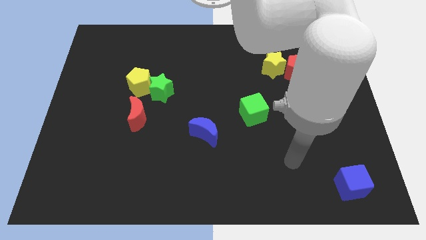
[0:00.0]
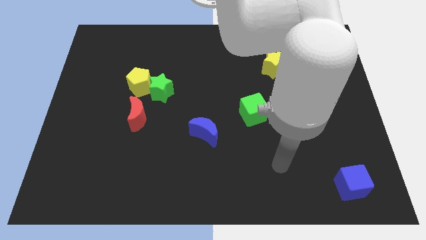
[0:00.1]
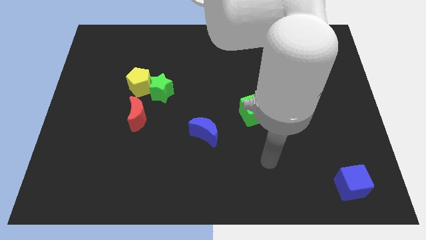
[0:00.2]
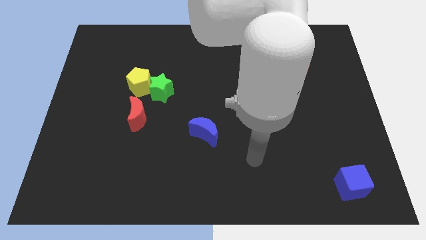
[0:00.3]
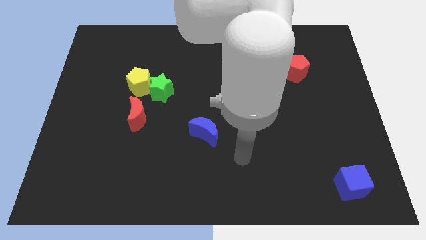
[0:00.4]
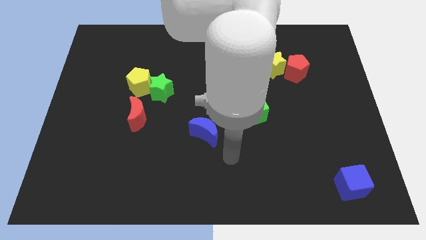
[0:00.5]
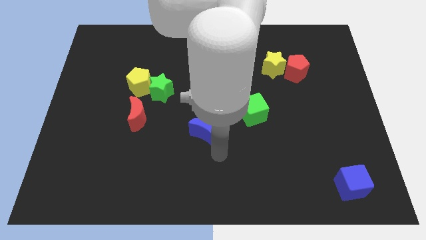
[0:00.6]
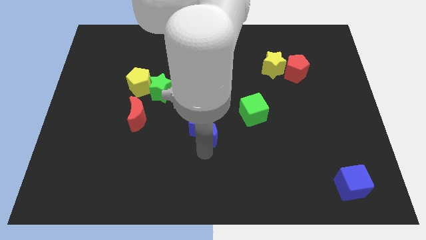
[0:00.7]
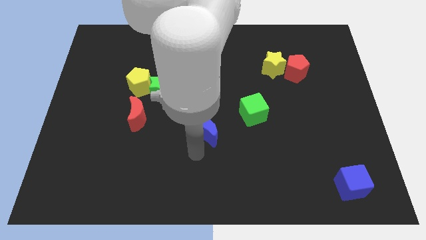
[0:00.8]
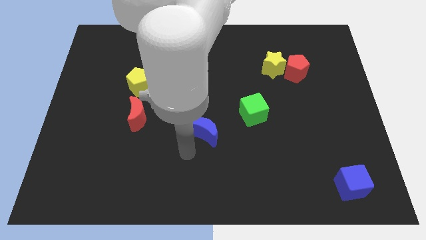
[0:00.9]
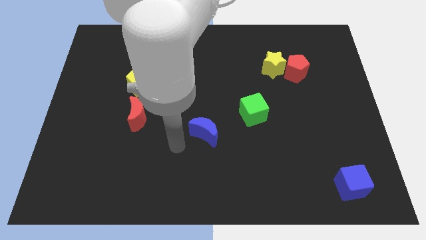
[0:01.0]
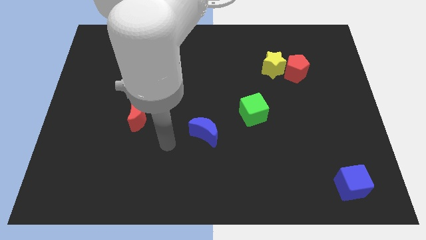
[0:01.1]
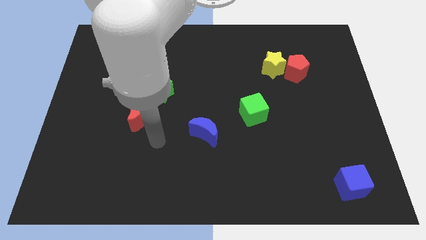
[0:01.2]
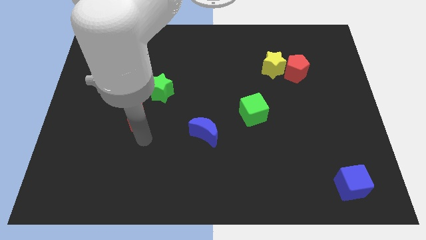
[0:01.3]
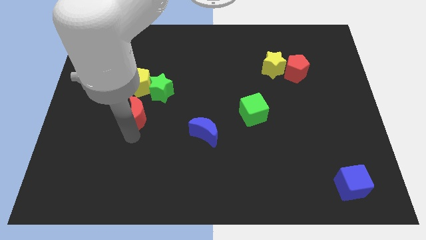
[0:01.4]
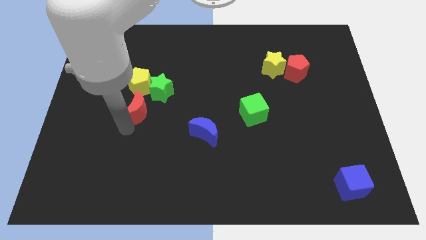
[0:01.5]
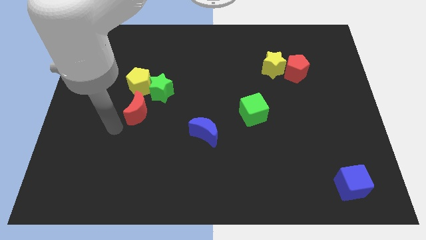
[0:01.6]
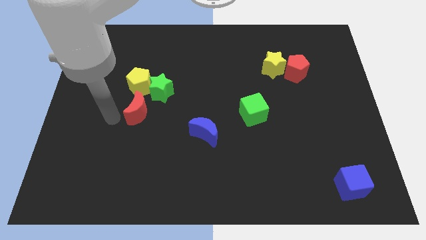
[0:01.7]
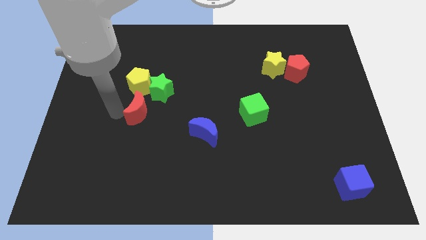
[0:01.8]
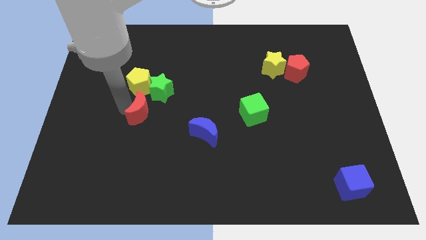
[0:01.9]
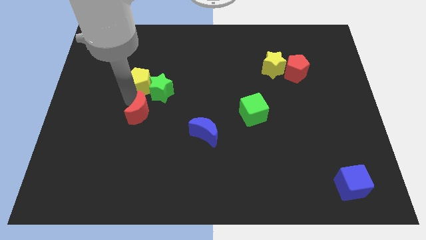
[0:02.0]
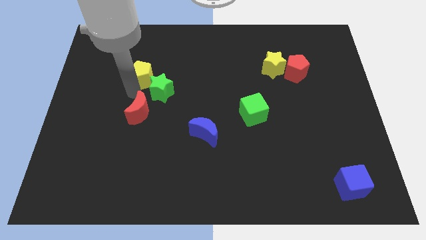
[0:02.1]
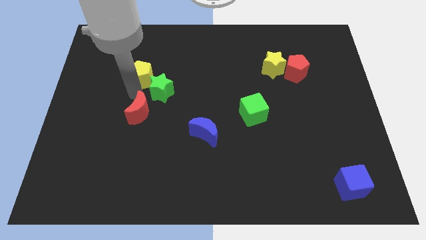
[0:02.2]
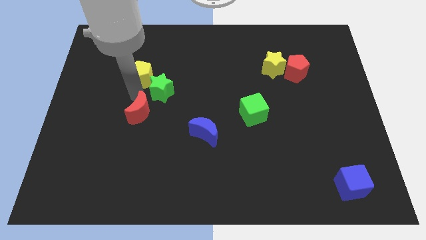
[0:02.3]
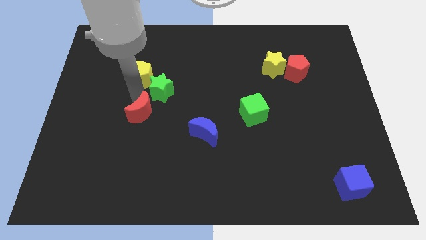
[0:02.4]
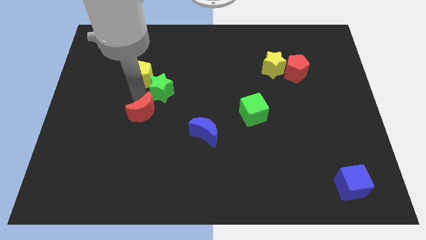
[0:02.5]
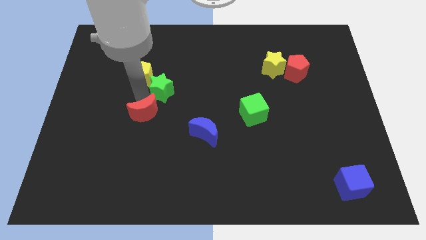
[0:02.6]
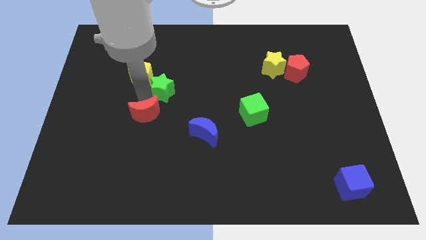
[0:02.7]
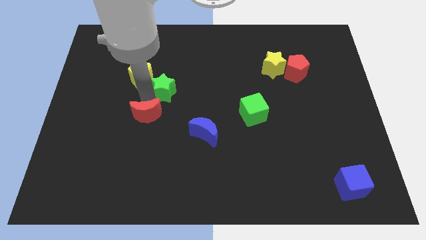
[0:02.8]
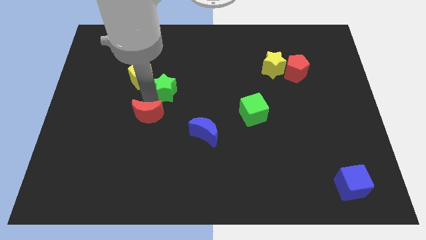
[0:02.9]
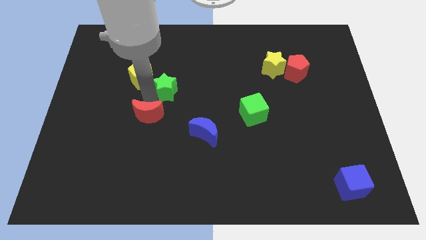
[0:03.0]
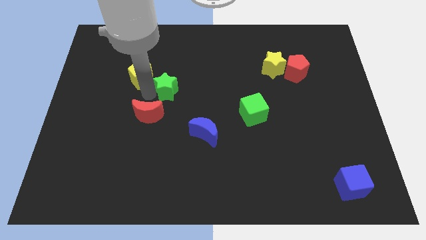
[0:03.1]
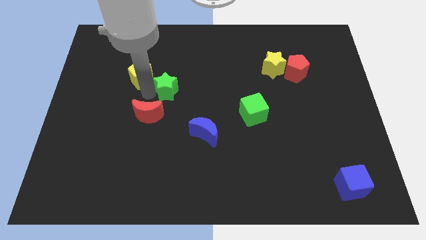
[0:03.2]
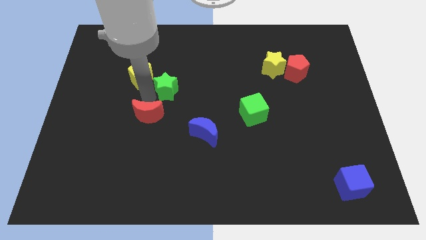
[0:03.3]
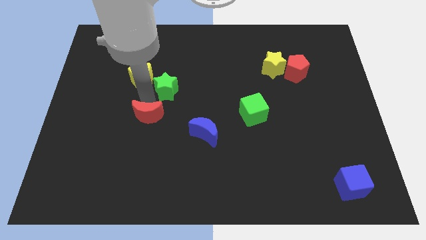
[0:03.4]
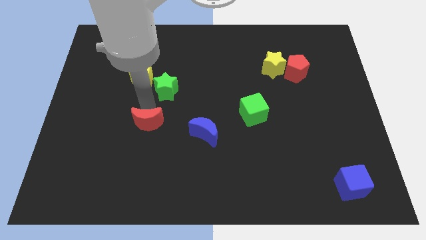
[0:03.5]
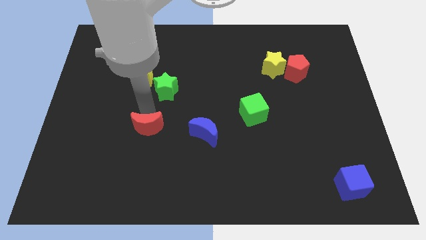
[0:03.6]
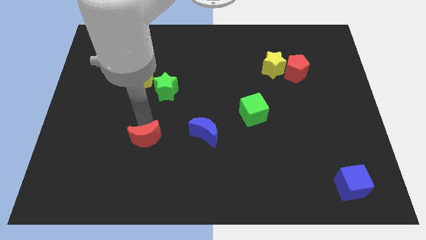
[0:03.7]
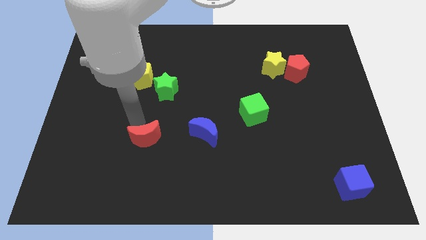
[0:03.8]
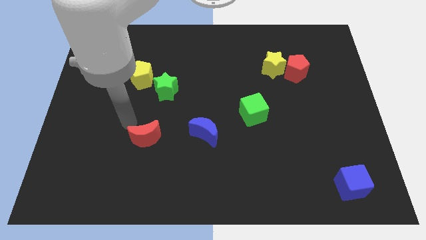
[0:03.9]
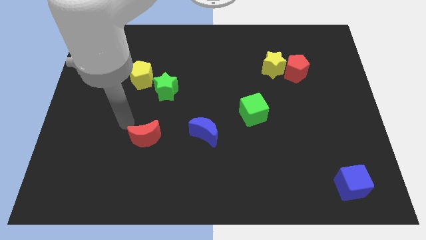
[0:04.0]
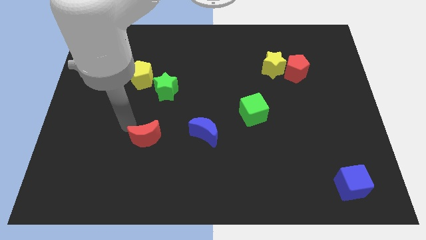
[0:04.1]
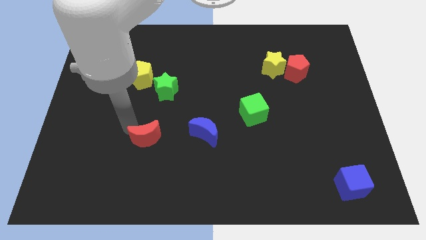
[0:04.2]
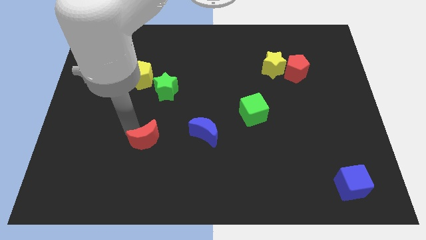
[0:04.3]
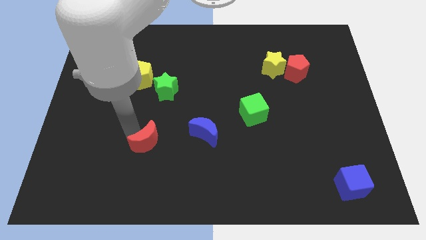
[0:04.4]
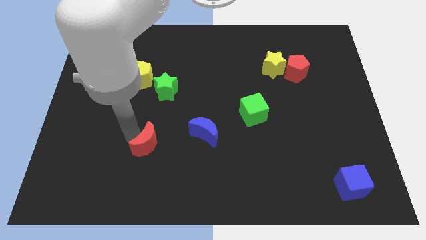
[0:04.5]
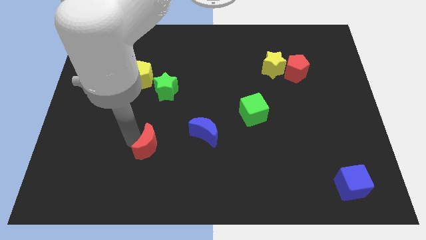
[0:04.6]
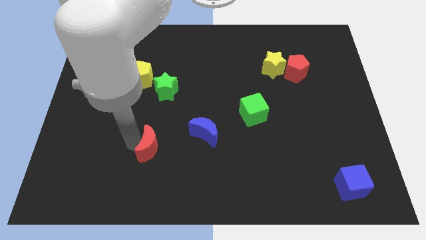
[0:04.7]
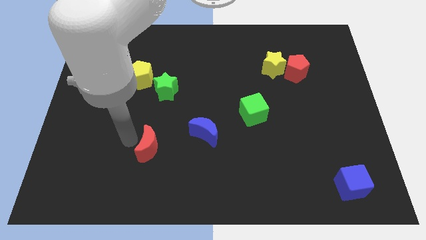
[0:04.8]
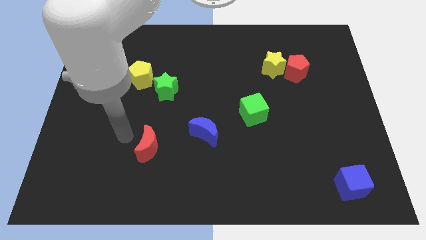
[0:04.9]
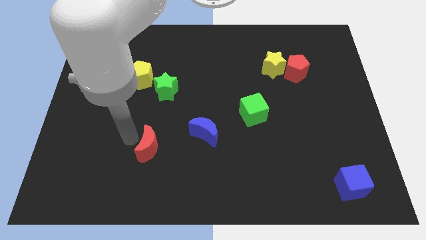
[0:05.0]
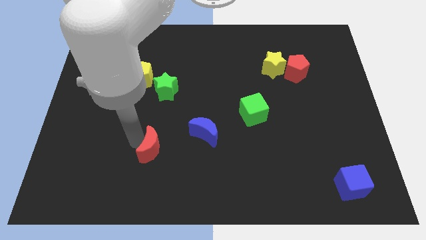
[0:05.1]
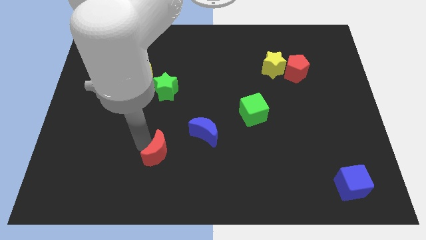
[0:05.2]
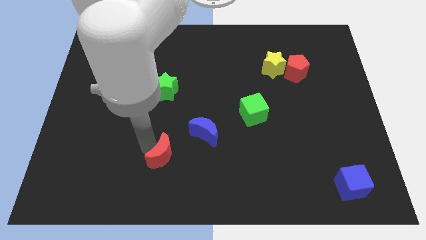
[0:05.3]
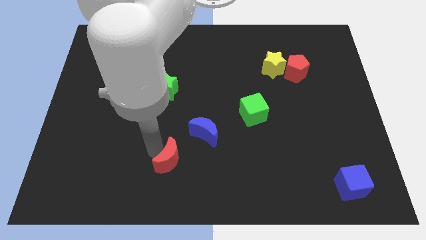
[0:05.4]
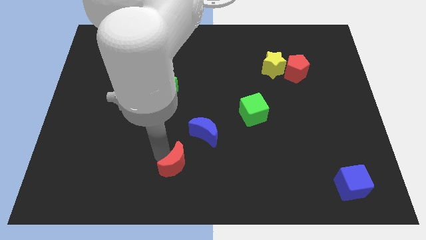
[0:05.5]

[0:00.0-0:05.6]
slide the red moon to the bottom

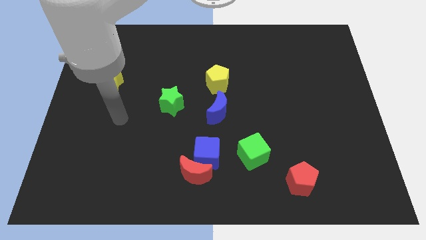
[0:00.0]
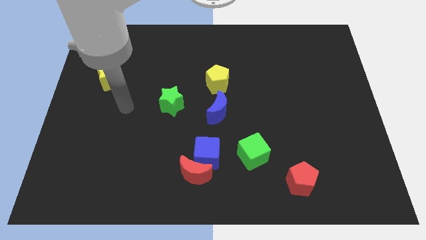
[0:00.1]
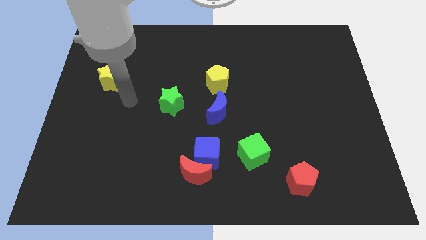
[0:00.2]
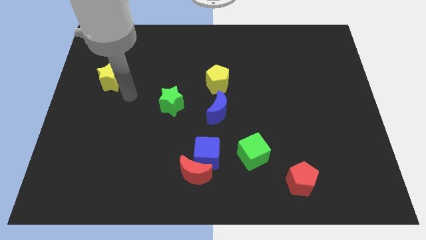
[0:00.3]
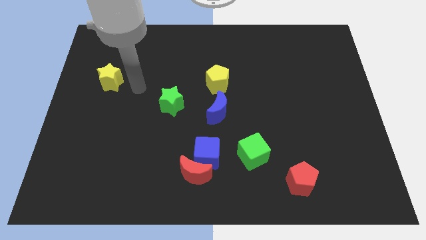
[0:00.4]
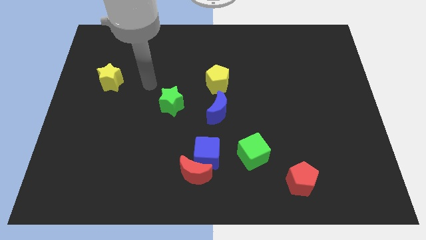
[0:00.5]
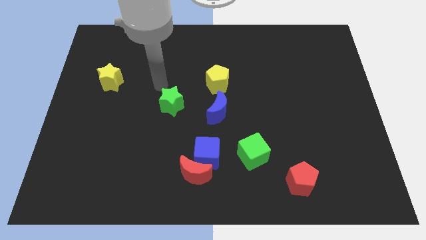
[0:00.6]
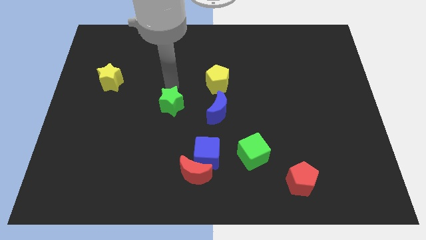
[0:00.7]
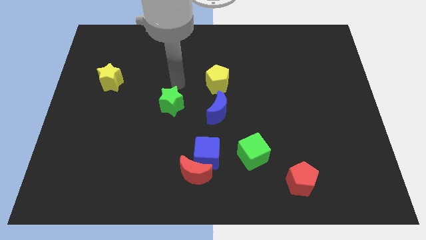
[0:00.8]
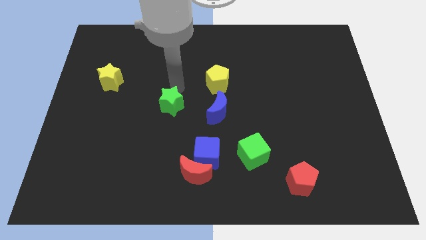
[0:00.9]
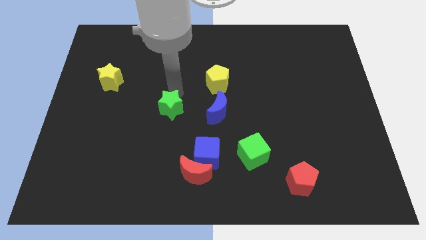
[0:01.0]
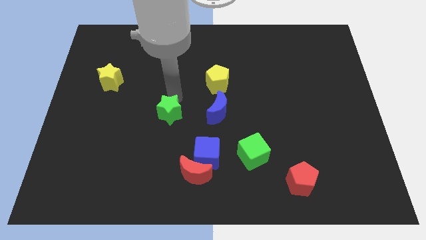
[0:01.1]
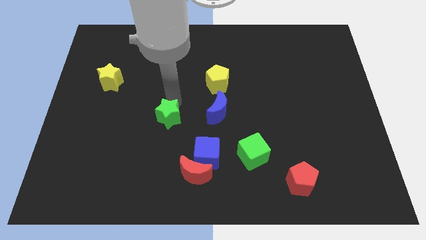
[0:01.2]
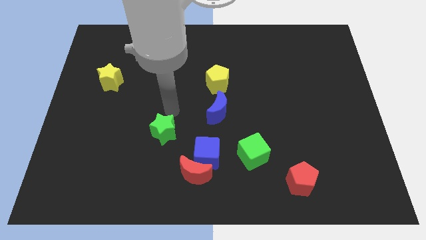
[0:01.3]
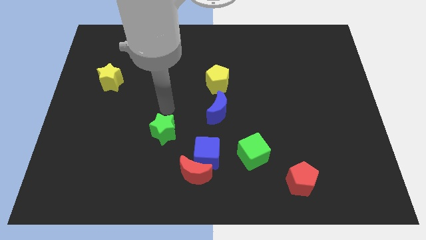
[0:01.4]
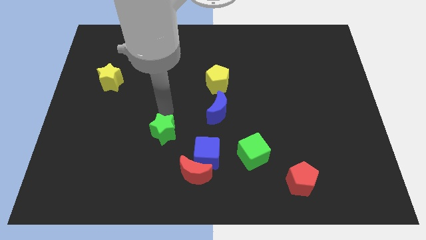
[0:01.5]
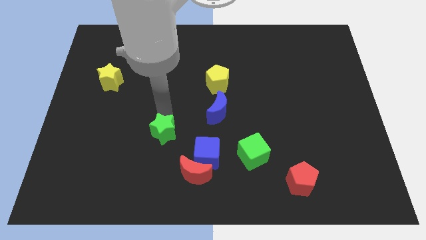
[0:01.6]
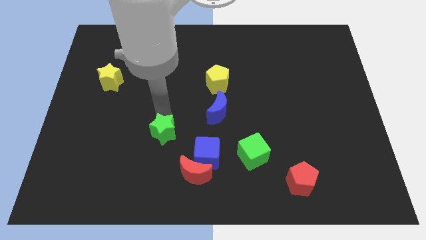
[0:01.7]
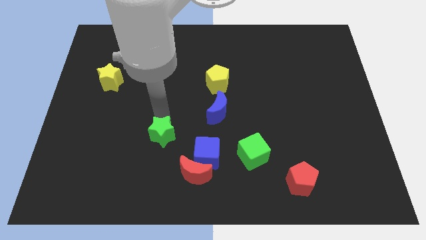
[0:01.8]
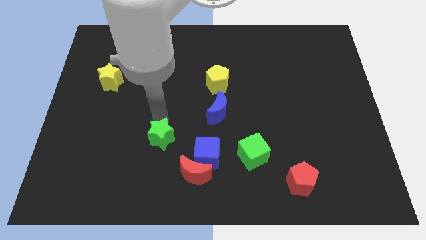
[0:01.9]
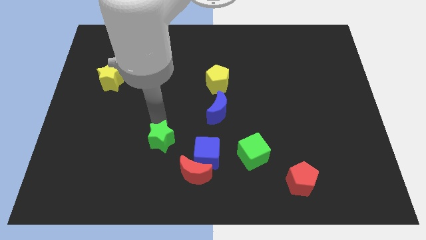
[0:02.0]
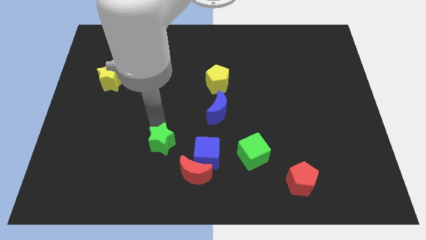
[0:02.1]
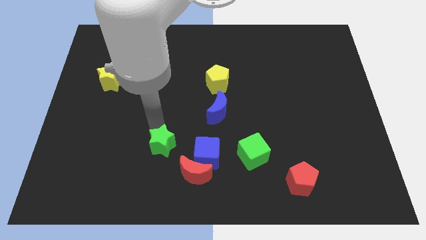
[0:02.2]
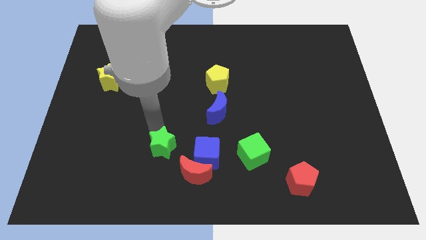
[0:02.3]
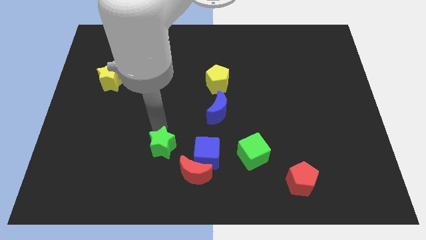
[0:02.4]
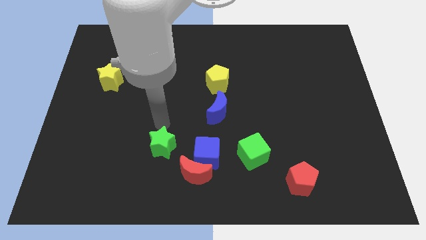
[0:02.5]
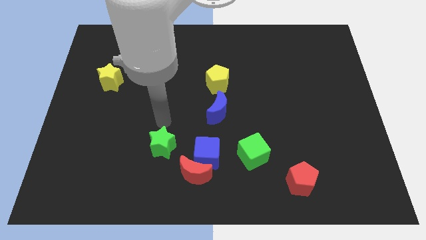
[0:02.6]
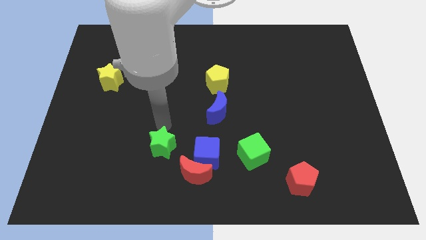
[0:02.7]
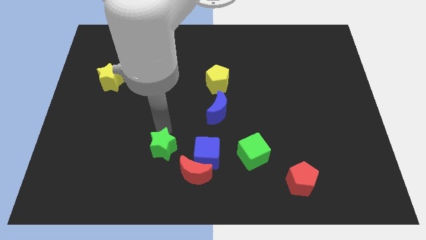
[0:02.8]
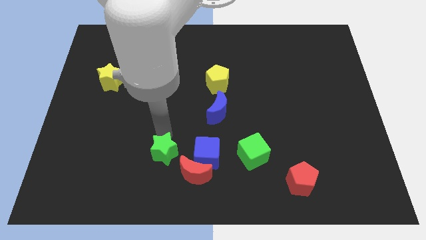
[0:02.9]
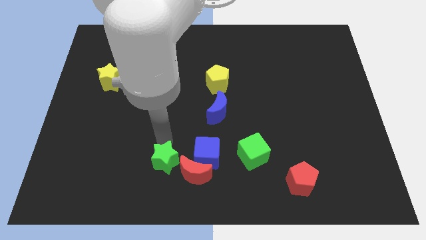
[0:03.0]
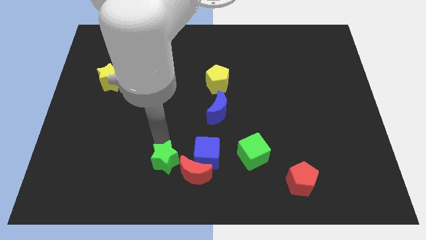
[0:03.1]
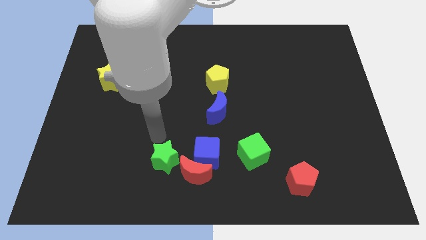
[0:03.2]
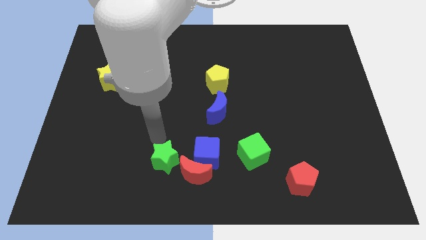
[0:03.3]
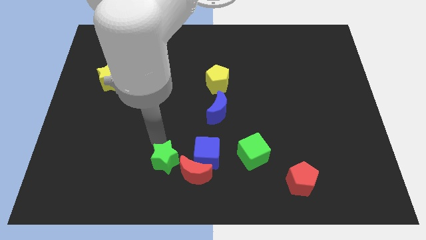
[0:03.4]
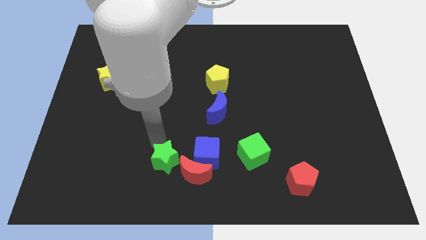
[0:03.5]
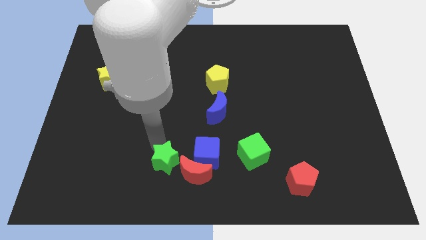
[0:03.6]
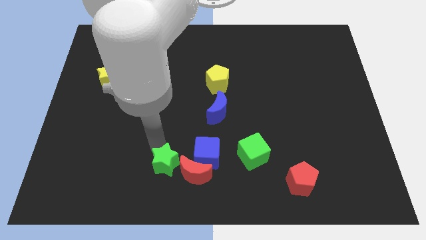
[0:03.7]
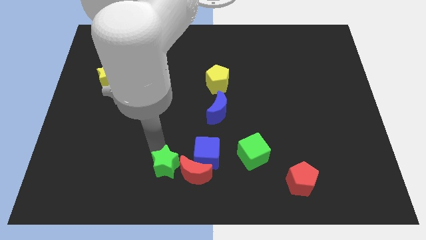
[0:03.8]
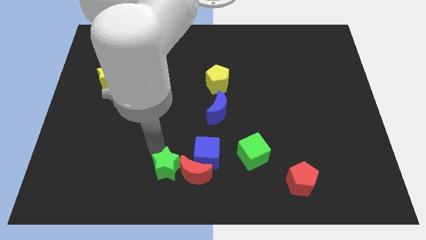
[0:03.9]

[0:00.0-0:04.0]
slide the green star to the bottom
